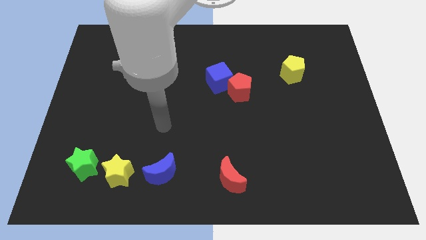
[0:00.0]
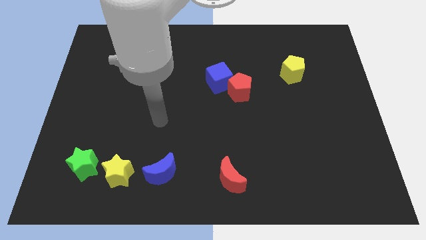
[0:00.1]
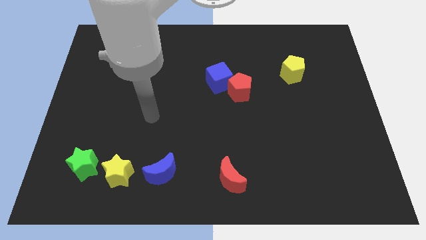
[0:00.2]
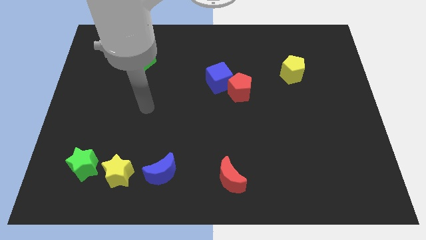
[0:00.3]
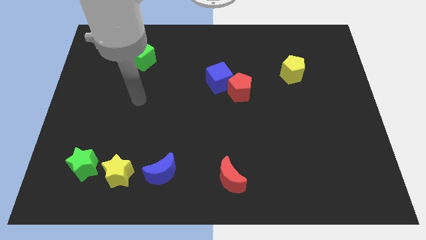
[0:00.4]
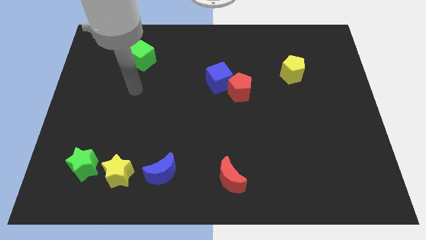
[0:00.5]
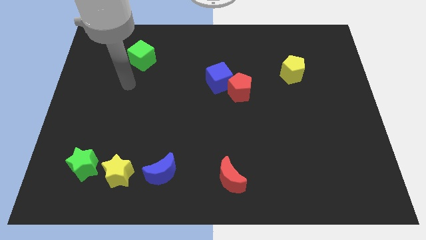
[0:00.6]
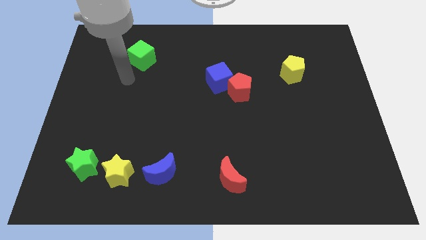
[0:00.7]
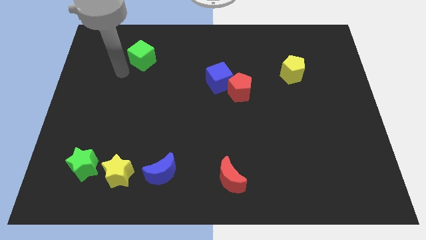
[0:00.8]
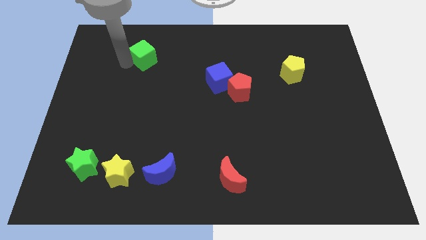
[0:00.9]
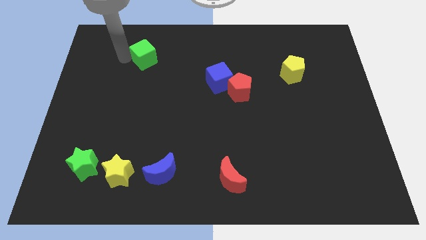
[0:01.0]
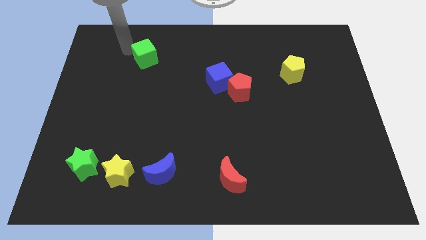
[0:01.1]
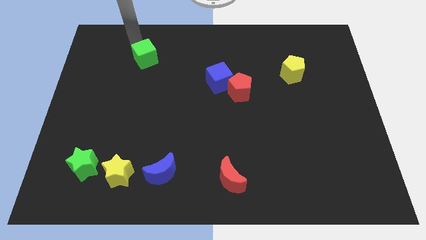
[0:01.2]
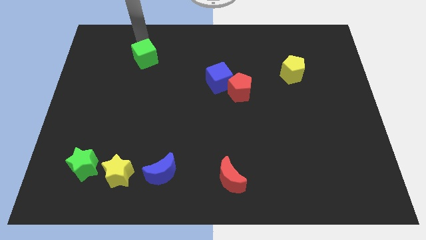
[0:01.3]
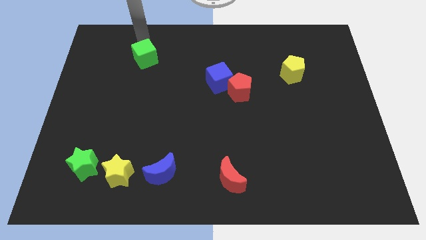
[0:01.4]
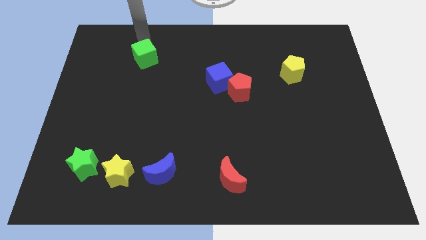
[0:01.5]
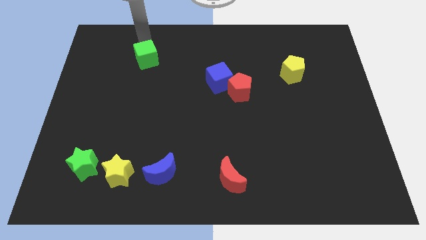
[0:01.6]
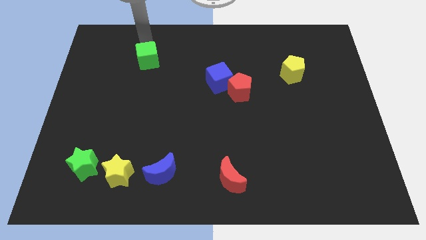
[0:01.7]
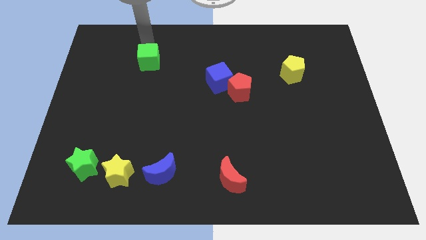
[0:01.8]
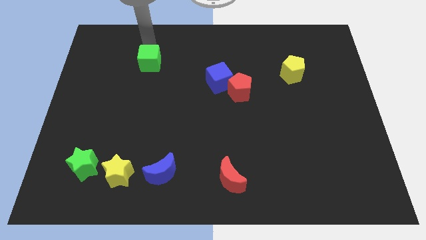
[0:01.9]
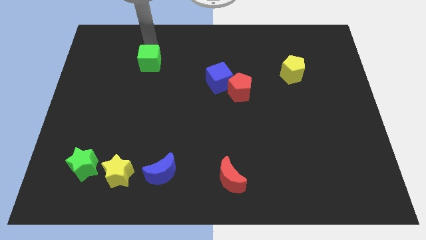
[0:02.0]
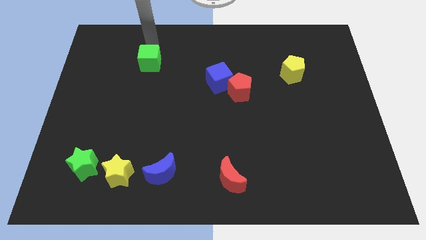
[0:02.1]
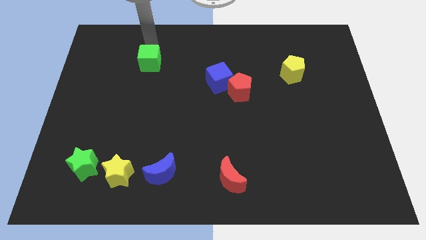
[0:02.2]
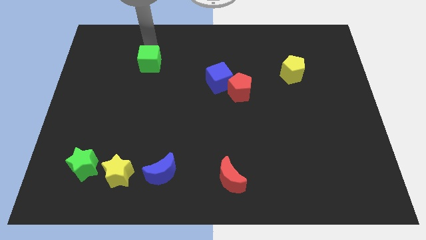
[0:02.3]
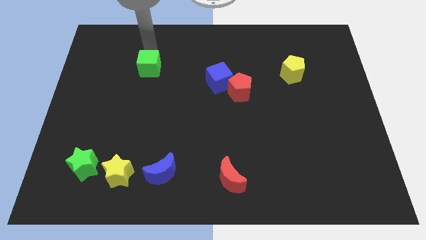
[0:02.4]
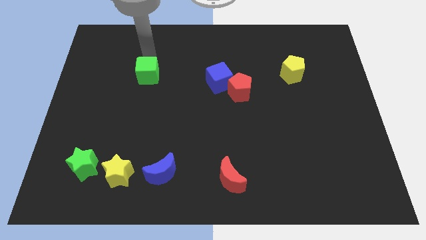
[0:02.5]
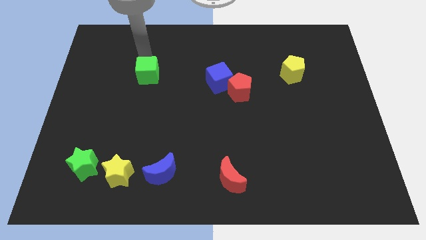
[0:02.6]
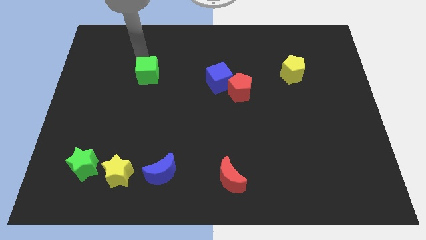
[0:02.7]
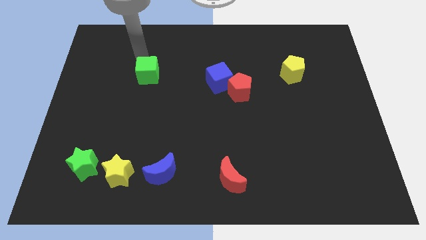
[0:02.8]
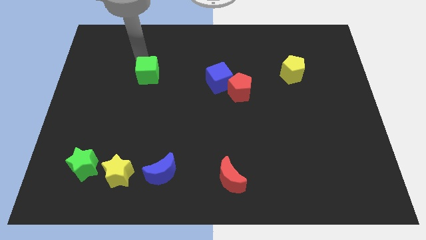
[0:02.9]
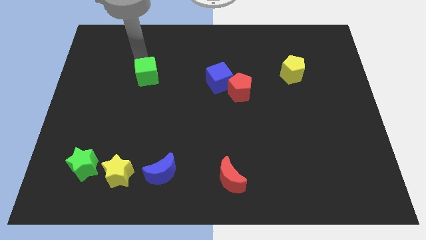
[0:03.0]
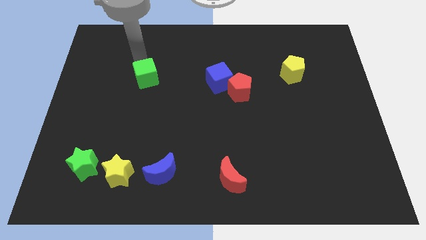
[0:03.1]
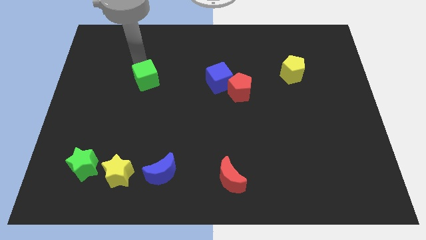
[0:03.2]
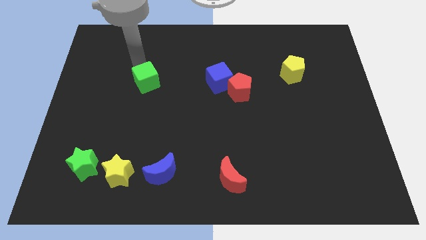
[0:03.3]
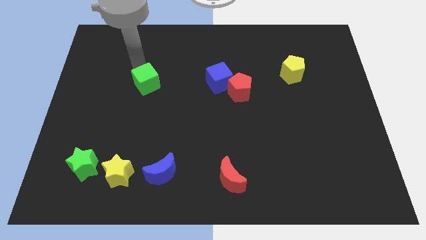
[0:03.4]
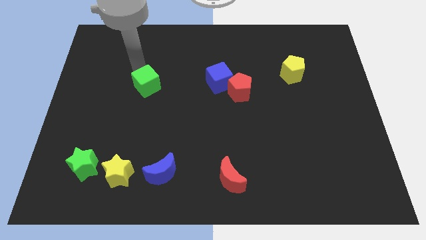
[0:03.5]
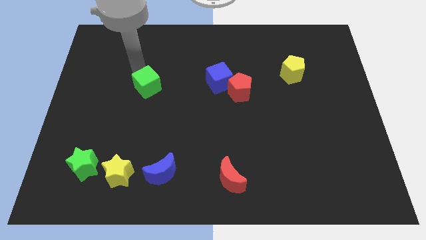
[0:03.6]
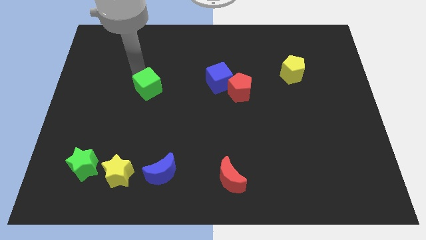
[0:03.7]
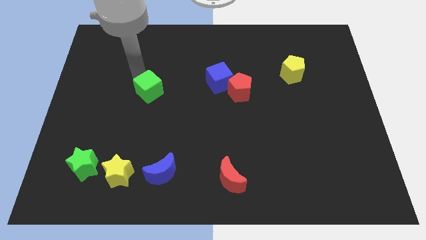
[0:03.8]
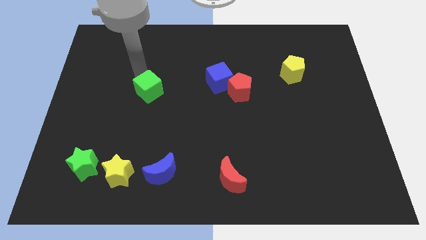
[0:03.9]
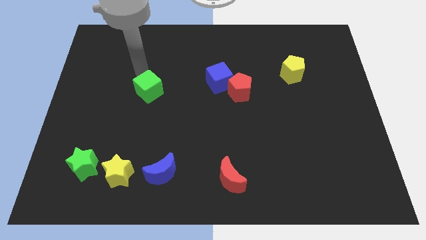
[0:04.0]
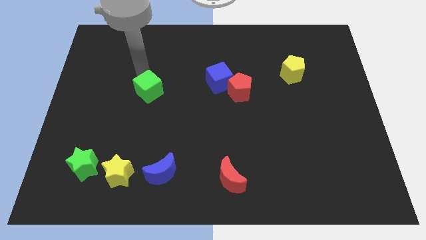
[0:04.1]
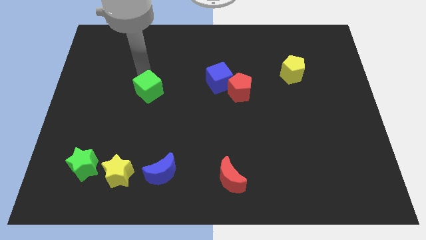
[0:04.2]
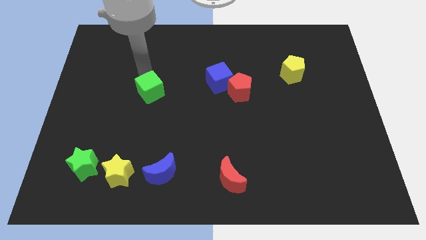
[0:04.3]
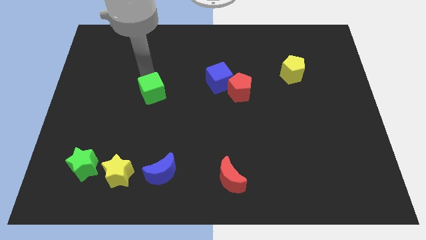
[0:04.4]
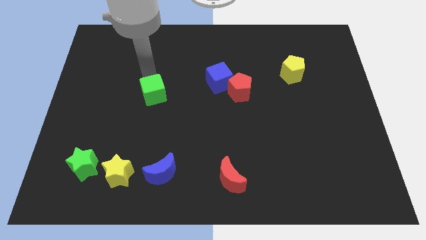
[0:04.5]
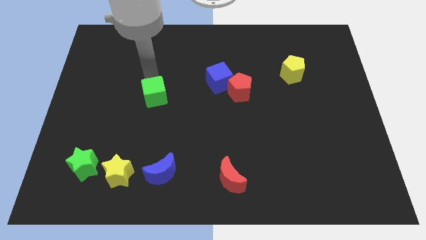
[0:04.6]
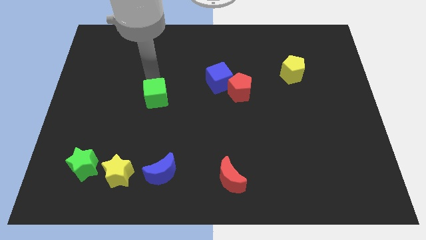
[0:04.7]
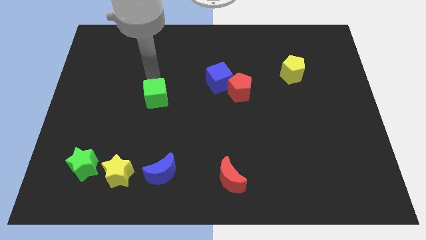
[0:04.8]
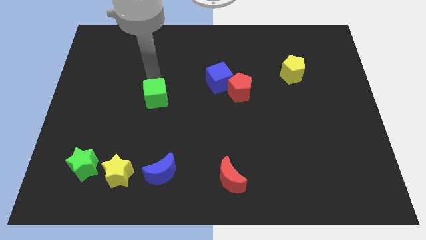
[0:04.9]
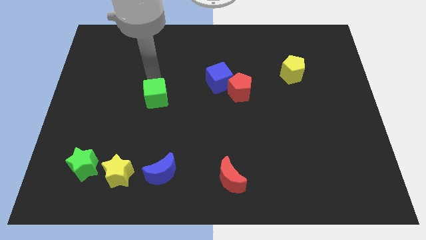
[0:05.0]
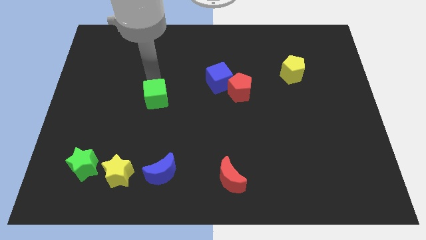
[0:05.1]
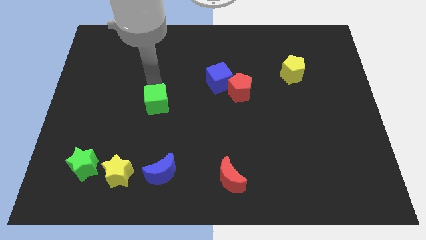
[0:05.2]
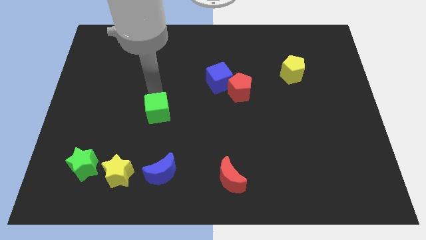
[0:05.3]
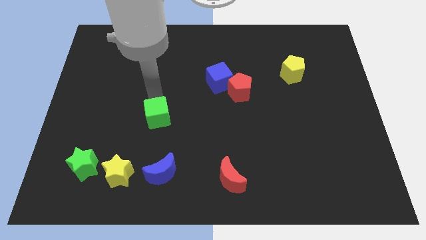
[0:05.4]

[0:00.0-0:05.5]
slide the green cube to the top of the blue moon

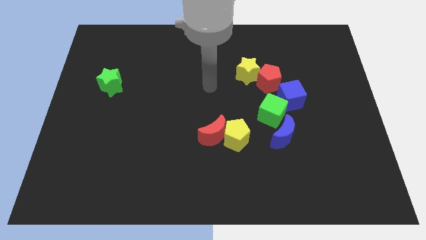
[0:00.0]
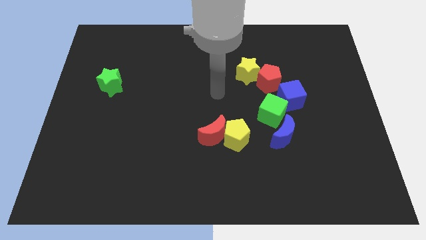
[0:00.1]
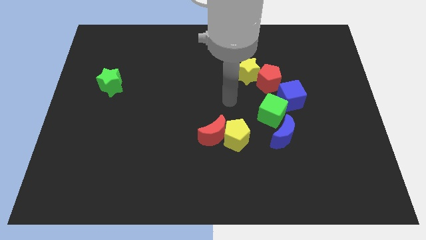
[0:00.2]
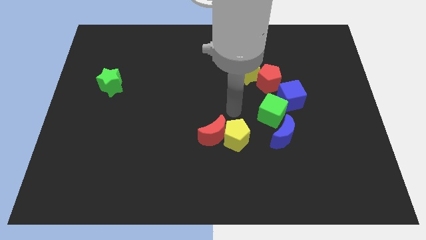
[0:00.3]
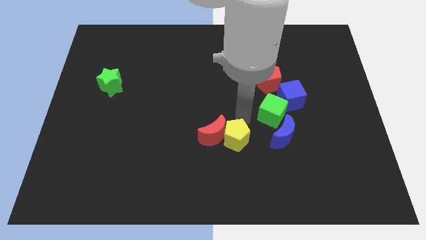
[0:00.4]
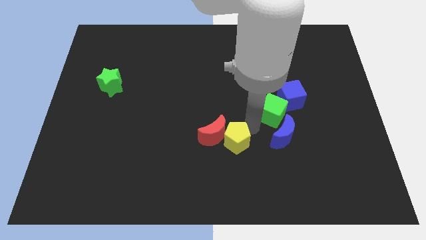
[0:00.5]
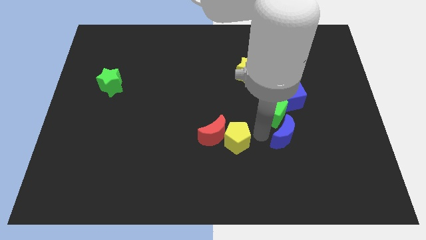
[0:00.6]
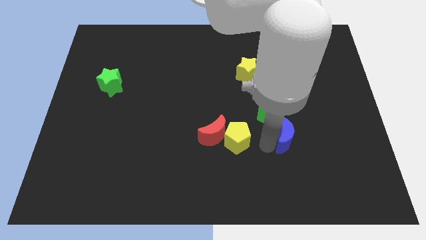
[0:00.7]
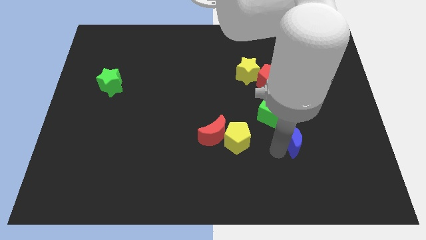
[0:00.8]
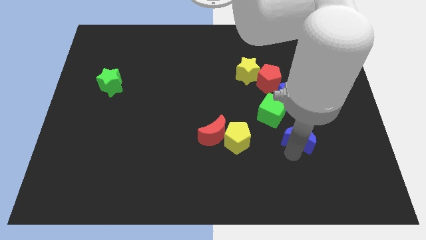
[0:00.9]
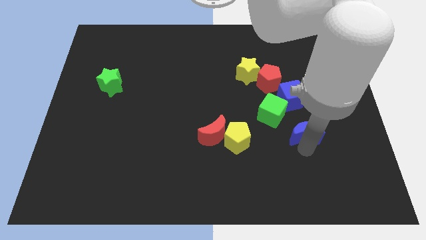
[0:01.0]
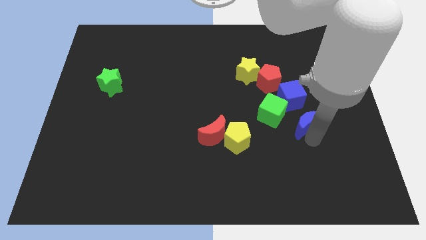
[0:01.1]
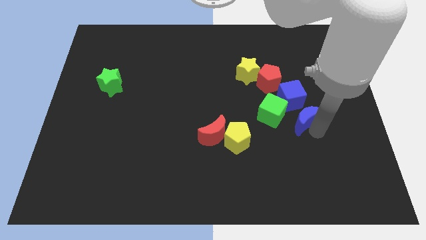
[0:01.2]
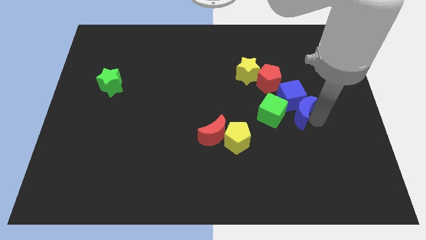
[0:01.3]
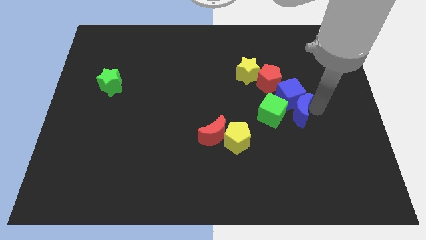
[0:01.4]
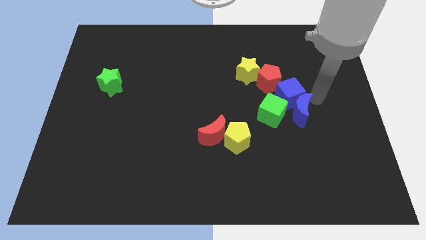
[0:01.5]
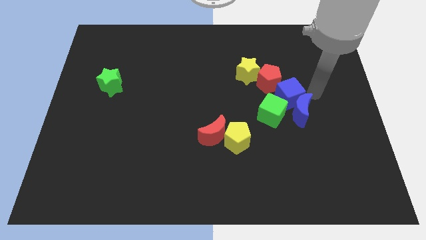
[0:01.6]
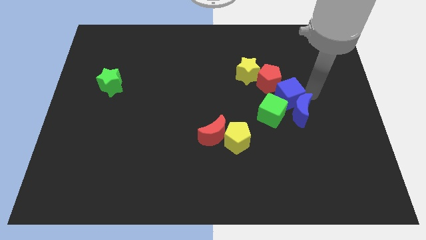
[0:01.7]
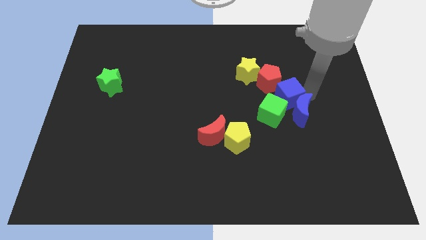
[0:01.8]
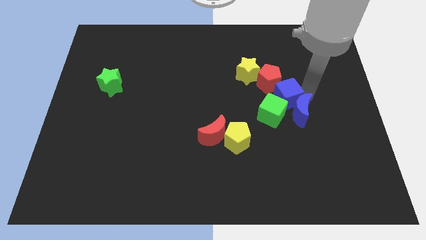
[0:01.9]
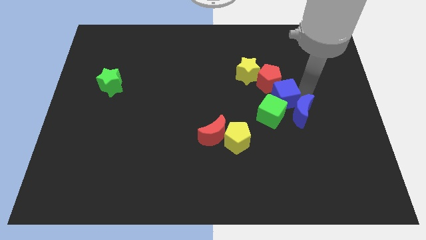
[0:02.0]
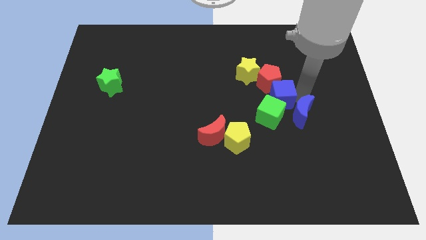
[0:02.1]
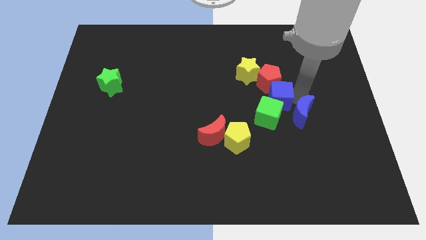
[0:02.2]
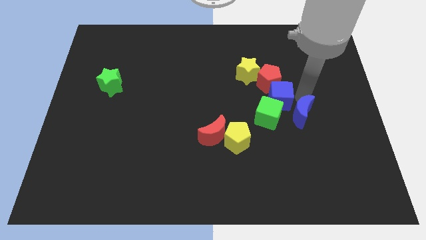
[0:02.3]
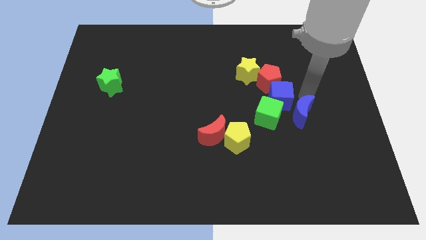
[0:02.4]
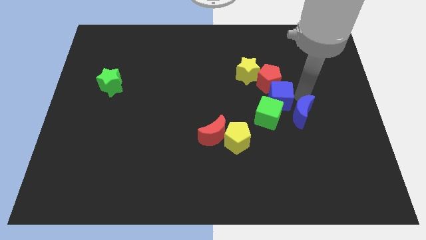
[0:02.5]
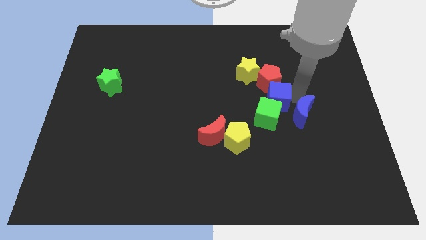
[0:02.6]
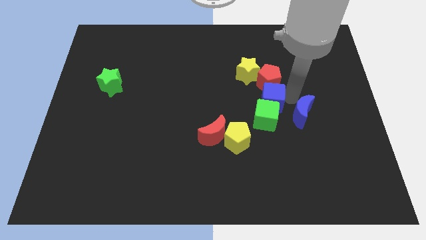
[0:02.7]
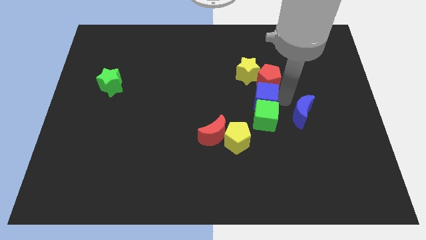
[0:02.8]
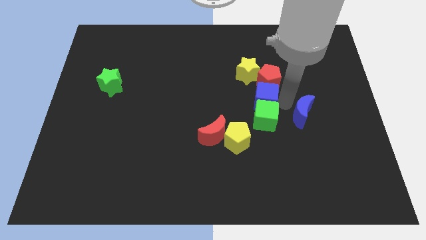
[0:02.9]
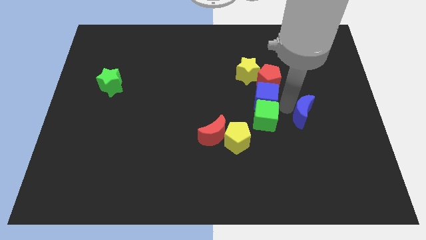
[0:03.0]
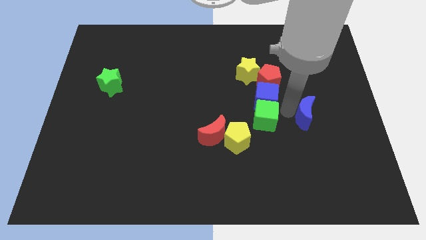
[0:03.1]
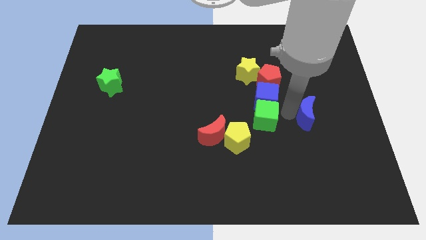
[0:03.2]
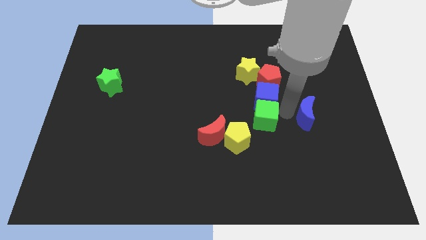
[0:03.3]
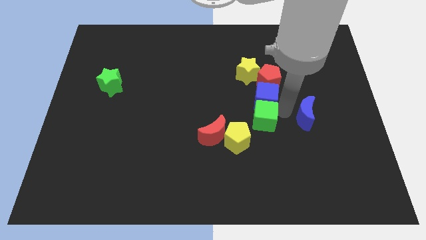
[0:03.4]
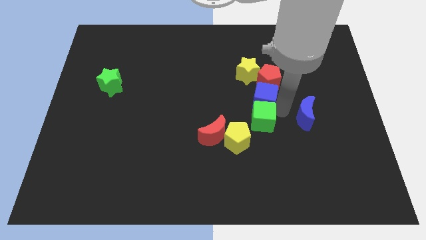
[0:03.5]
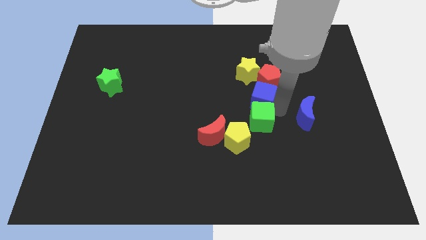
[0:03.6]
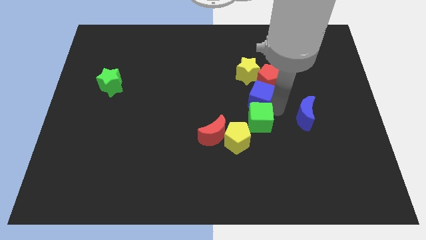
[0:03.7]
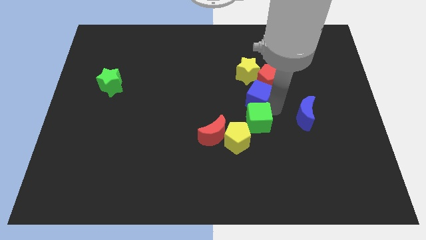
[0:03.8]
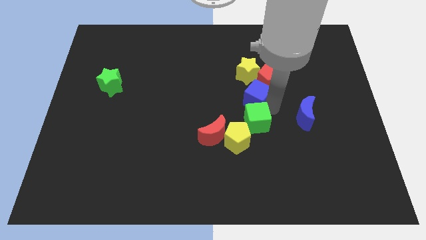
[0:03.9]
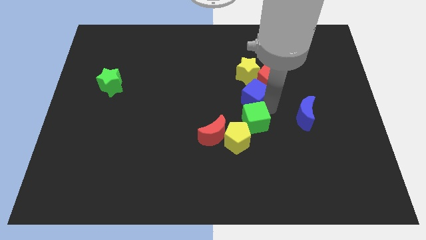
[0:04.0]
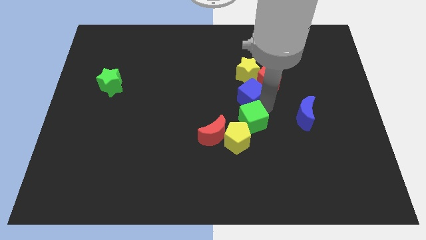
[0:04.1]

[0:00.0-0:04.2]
move the blue cube to the left side of the red pentagon
